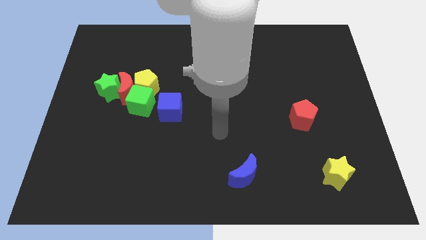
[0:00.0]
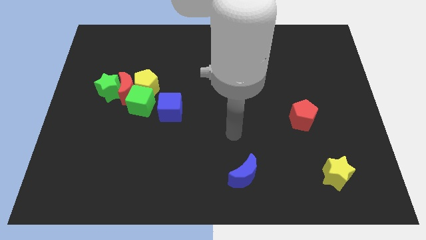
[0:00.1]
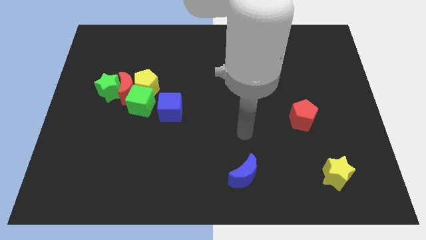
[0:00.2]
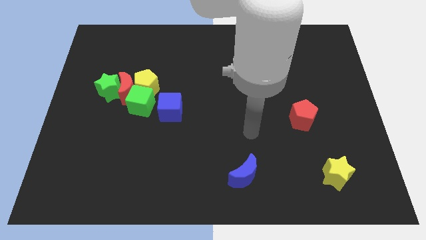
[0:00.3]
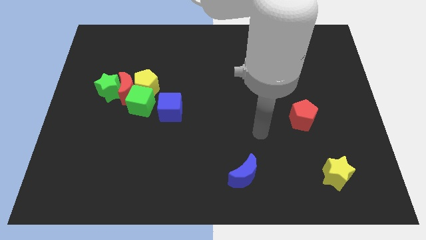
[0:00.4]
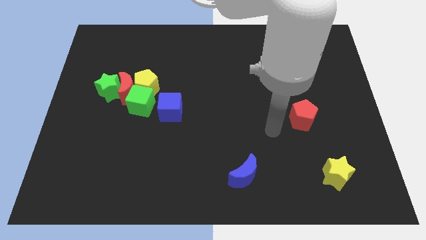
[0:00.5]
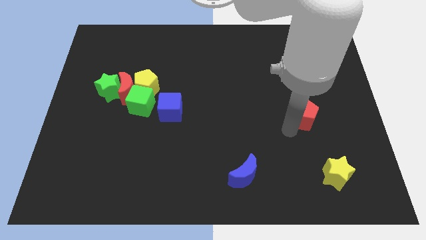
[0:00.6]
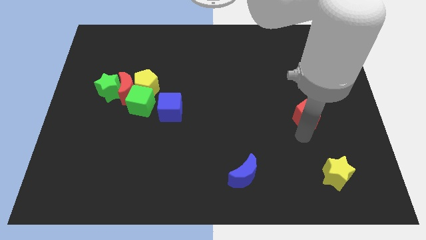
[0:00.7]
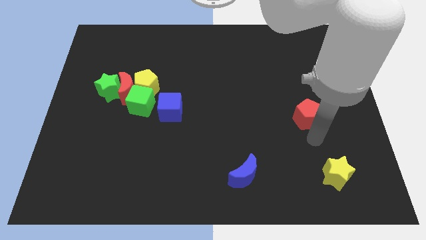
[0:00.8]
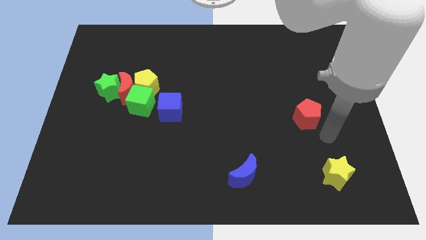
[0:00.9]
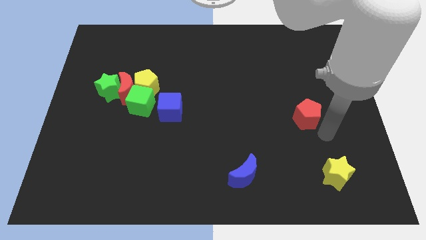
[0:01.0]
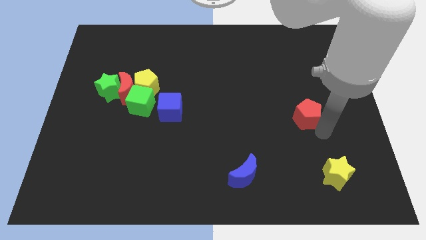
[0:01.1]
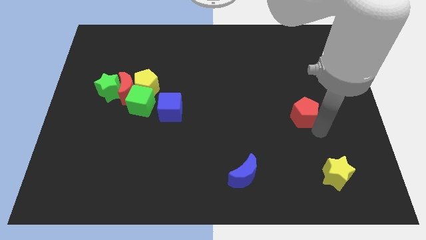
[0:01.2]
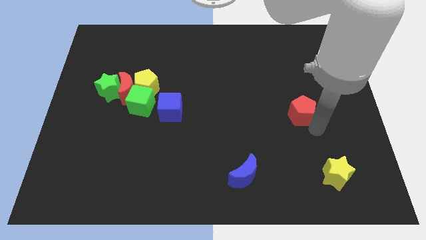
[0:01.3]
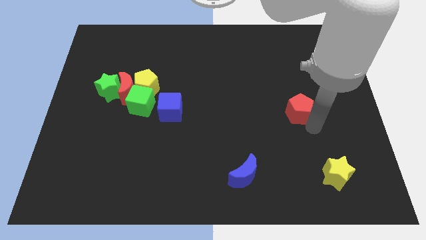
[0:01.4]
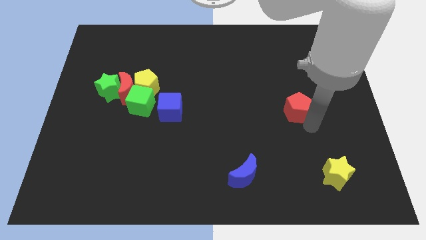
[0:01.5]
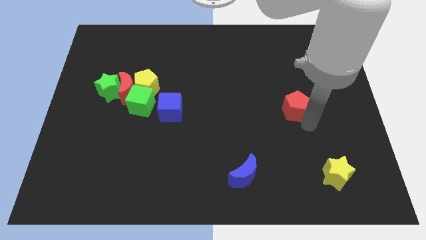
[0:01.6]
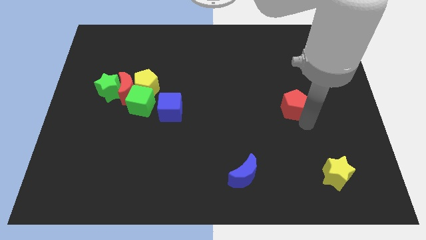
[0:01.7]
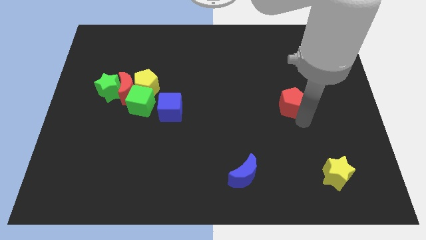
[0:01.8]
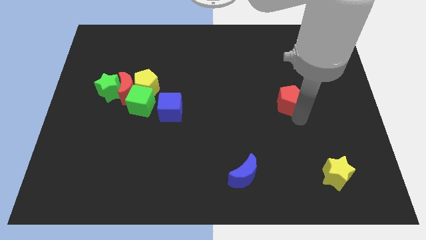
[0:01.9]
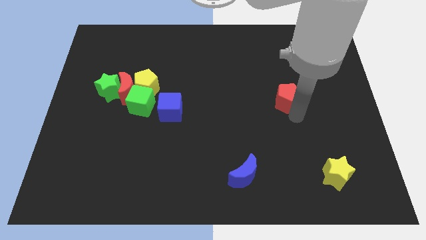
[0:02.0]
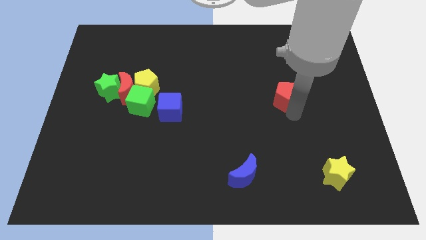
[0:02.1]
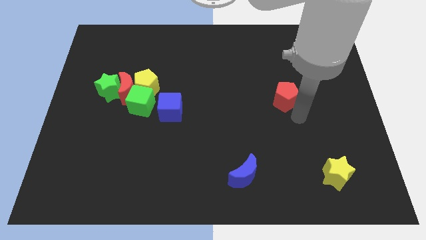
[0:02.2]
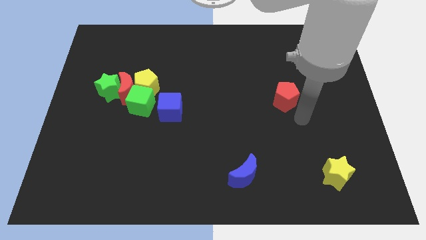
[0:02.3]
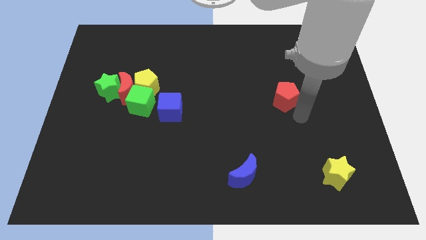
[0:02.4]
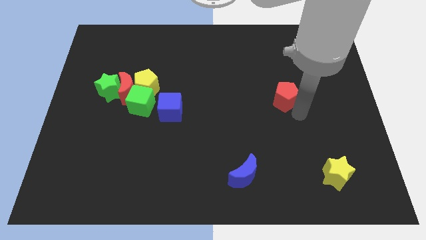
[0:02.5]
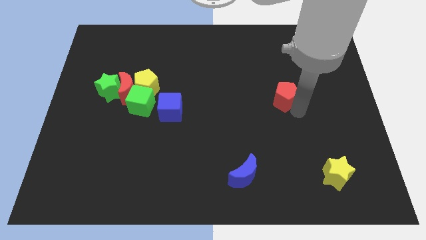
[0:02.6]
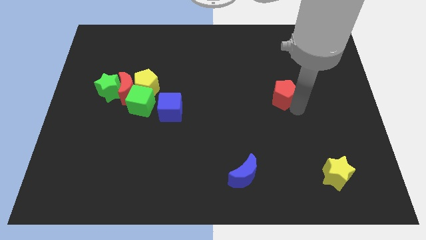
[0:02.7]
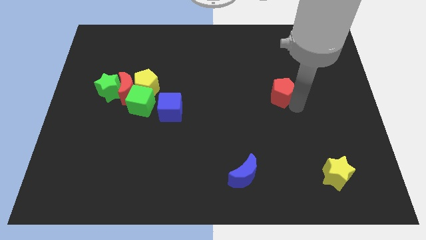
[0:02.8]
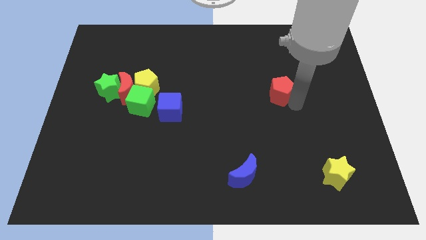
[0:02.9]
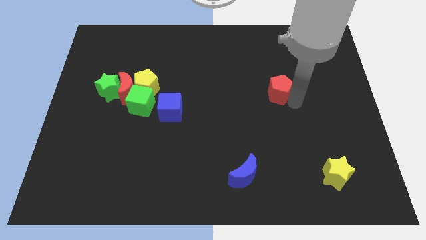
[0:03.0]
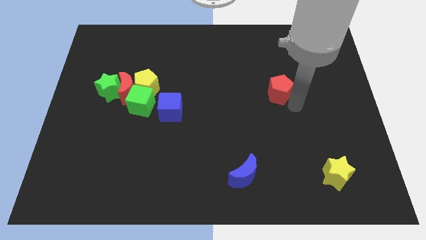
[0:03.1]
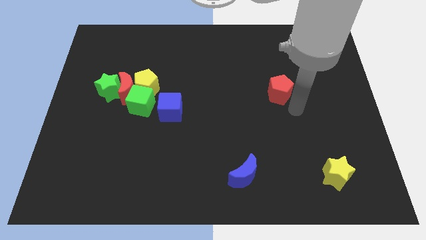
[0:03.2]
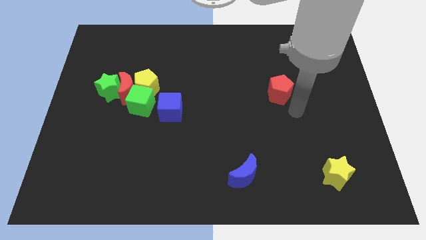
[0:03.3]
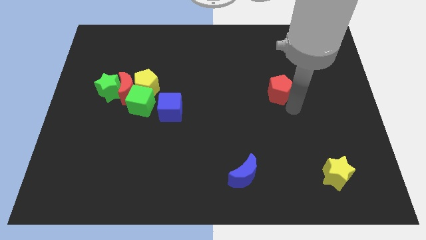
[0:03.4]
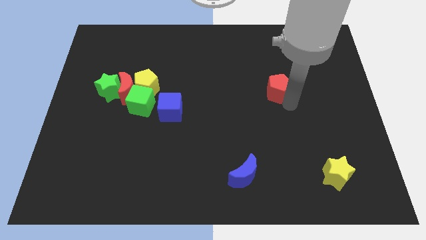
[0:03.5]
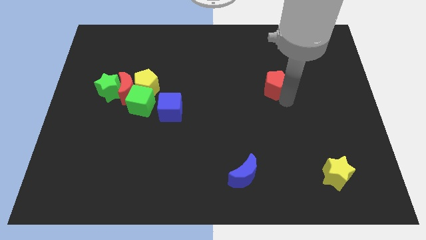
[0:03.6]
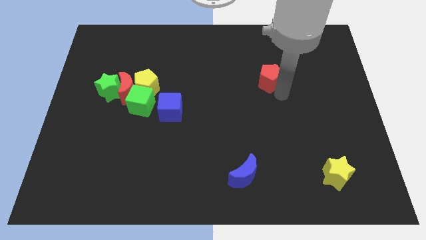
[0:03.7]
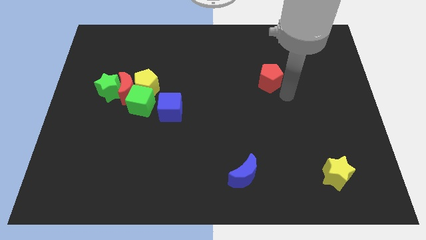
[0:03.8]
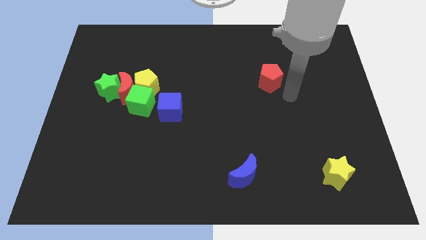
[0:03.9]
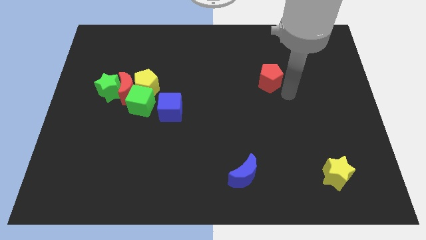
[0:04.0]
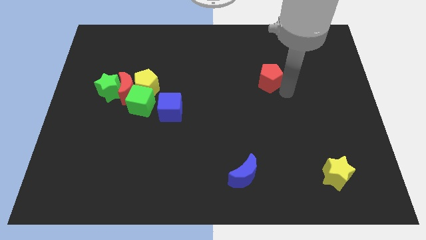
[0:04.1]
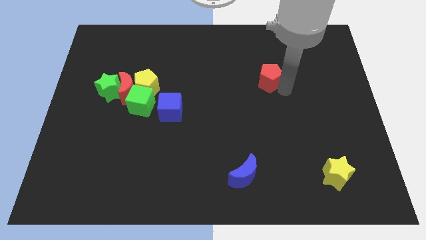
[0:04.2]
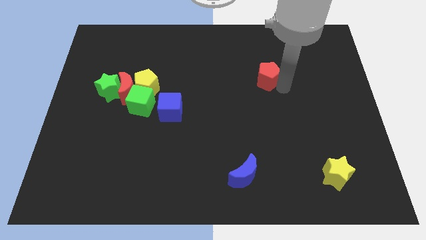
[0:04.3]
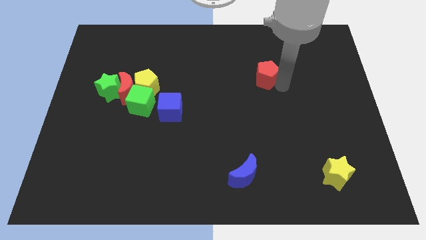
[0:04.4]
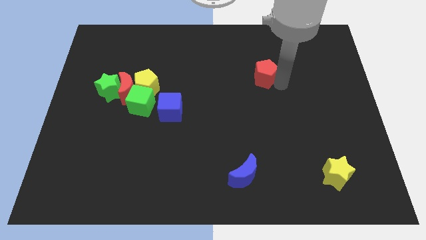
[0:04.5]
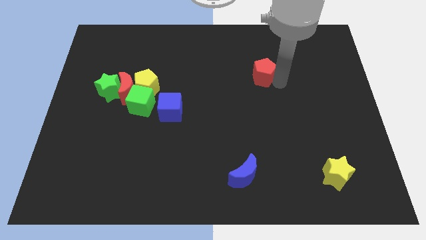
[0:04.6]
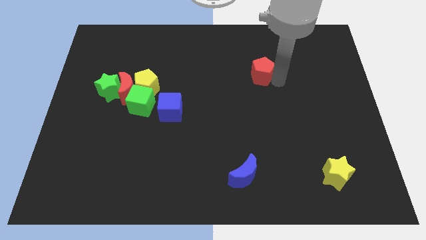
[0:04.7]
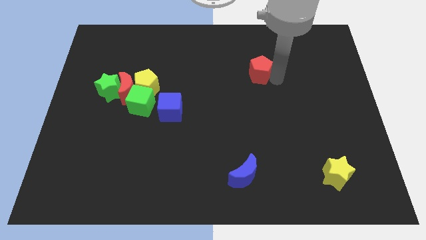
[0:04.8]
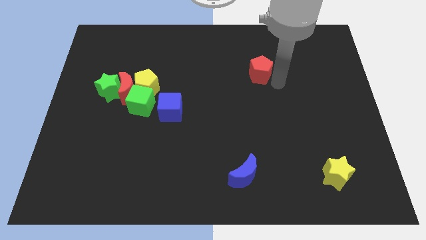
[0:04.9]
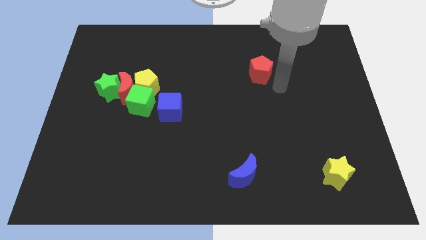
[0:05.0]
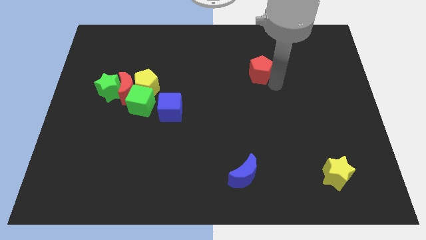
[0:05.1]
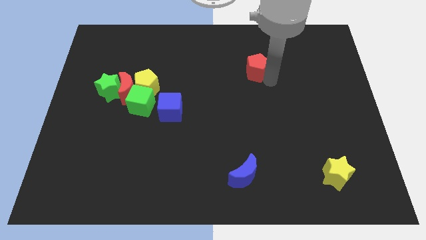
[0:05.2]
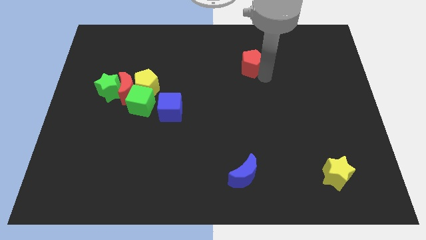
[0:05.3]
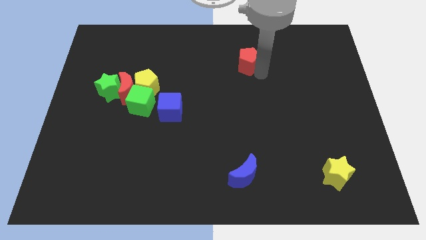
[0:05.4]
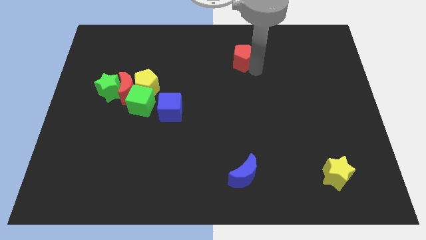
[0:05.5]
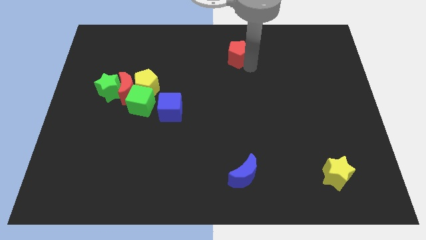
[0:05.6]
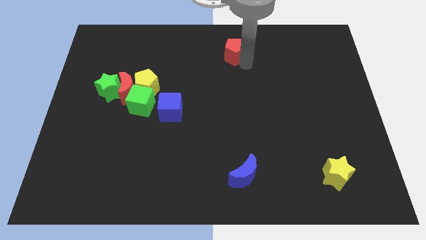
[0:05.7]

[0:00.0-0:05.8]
put the red pentagon to the top side

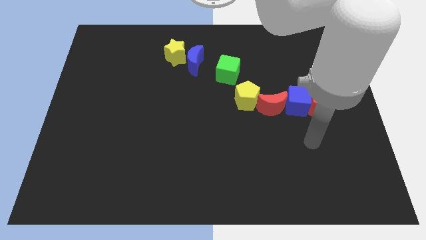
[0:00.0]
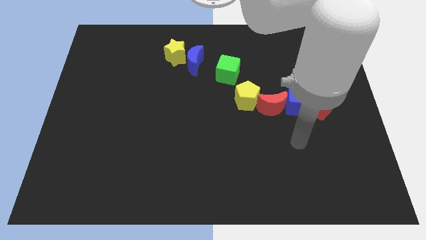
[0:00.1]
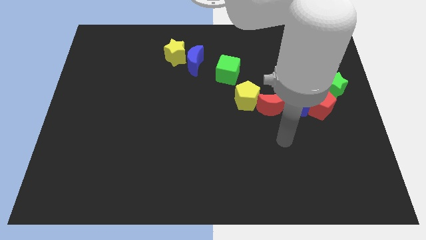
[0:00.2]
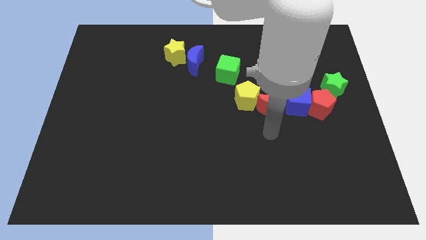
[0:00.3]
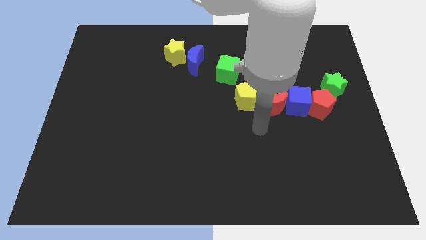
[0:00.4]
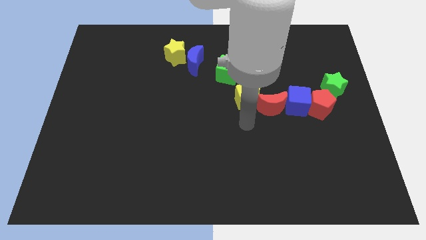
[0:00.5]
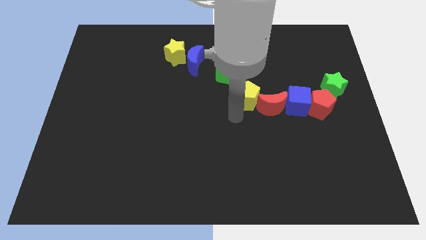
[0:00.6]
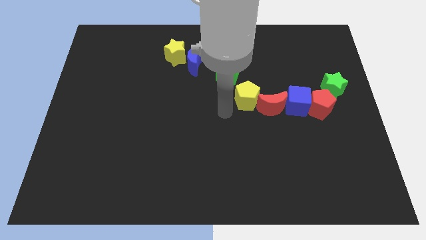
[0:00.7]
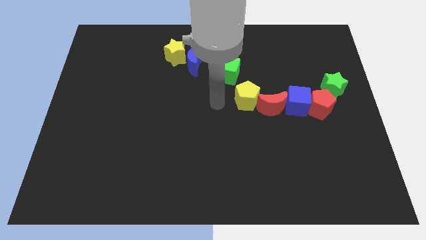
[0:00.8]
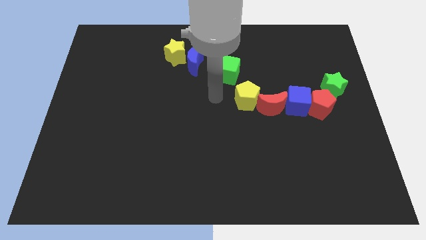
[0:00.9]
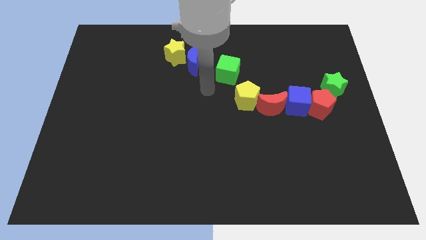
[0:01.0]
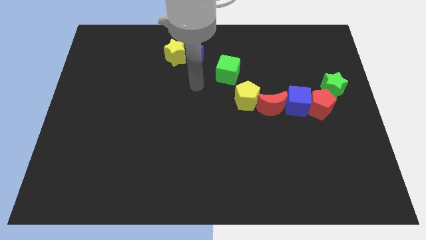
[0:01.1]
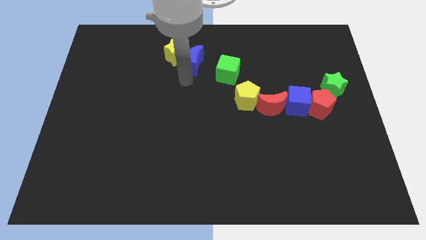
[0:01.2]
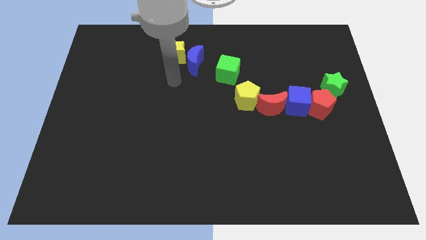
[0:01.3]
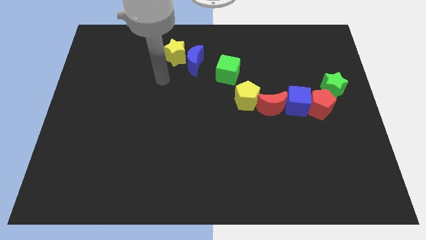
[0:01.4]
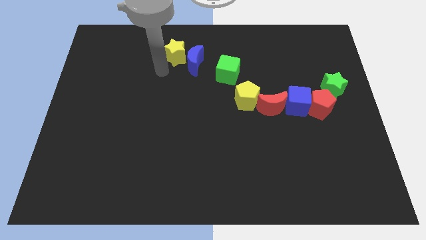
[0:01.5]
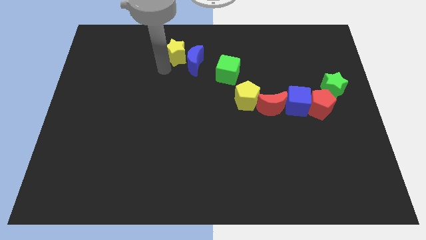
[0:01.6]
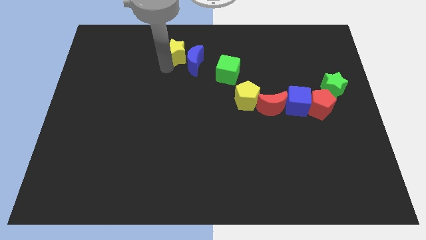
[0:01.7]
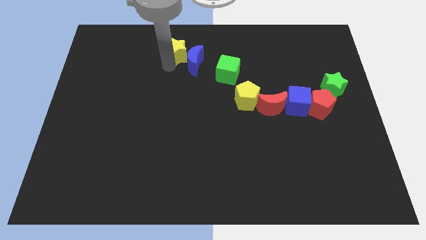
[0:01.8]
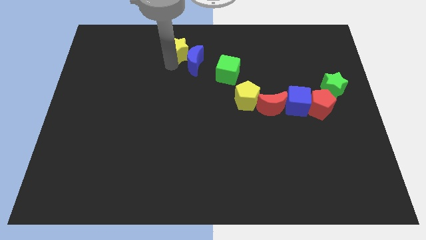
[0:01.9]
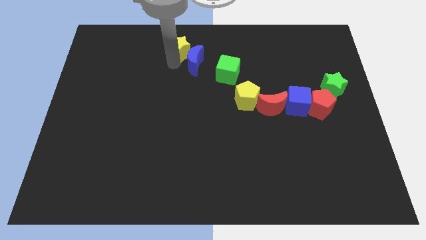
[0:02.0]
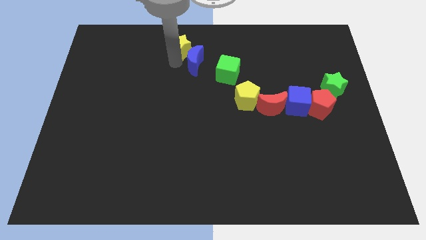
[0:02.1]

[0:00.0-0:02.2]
slide the yellow star to the towards your base
